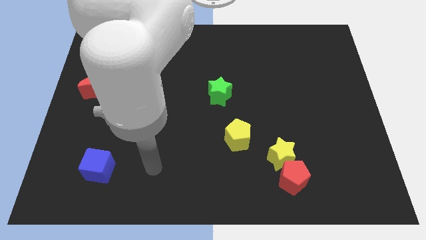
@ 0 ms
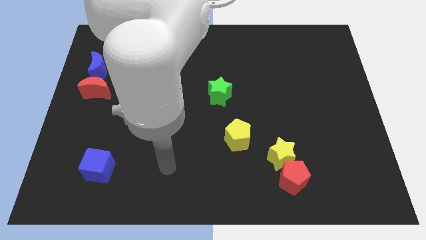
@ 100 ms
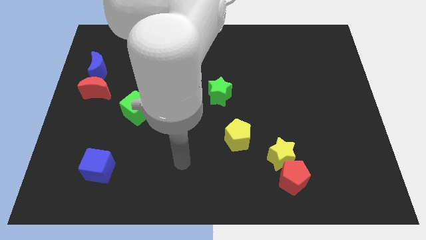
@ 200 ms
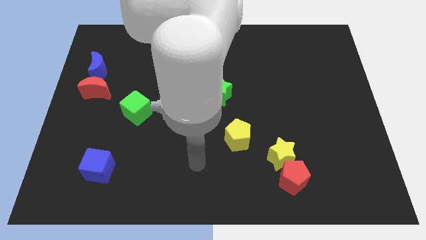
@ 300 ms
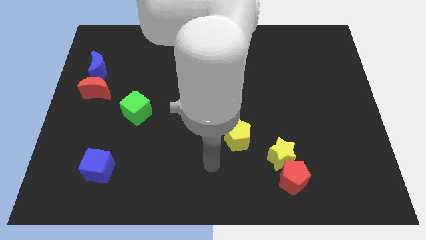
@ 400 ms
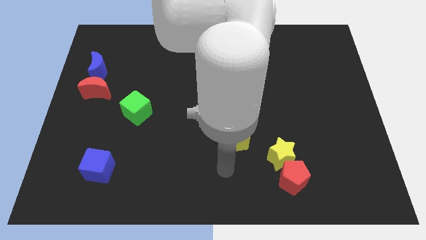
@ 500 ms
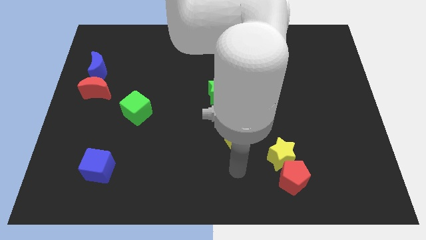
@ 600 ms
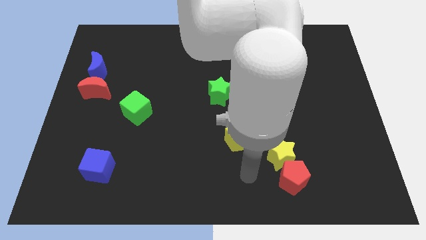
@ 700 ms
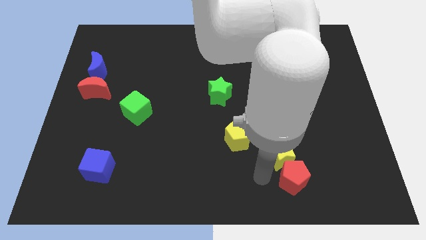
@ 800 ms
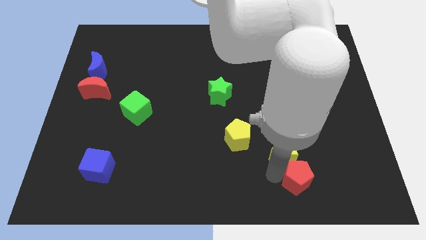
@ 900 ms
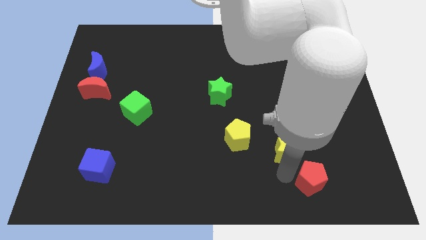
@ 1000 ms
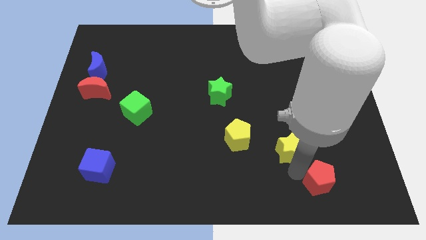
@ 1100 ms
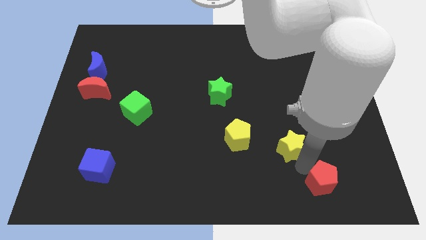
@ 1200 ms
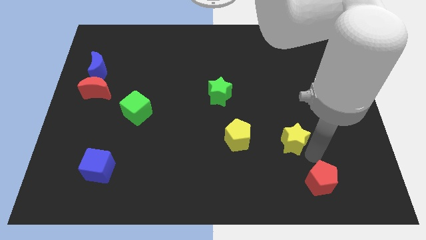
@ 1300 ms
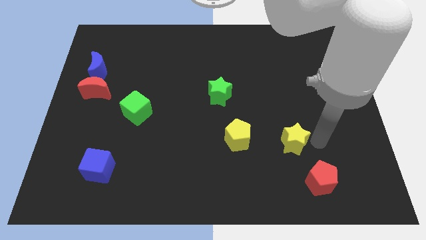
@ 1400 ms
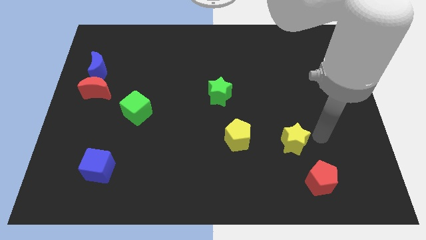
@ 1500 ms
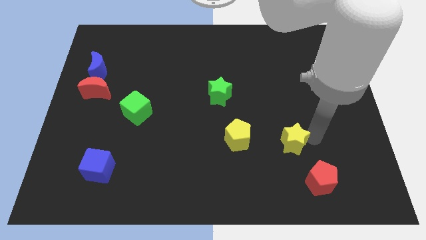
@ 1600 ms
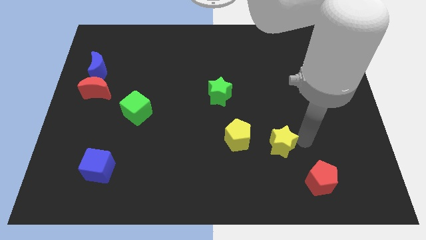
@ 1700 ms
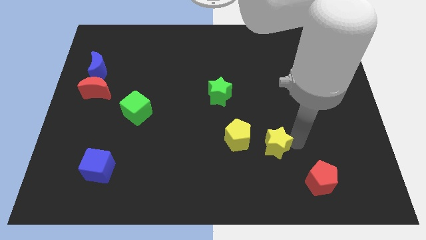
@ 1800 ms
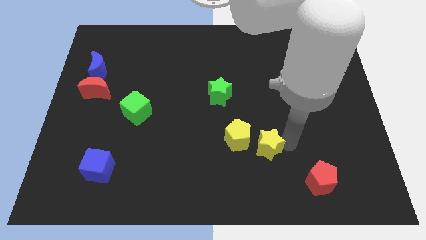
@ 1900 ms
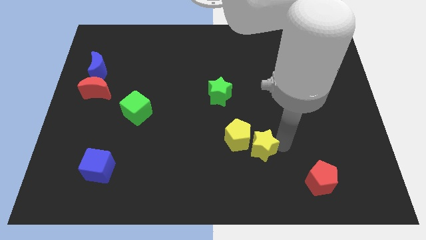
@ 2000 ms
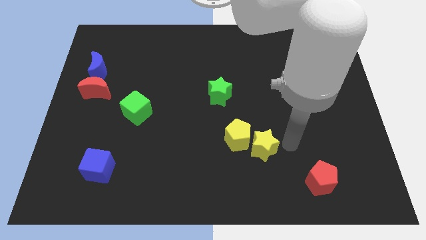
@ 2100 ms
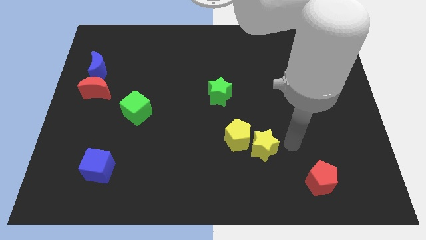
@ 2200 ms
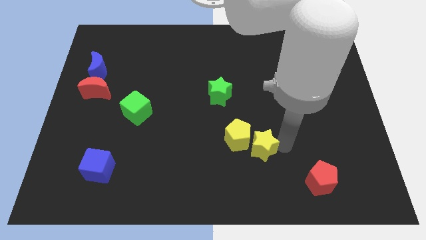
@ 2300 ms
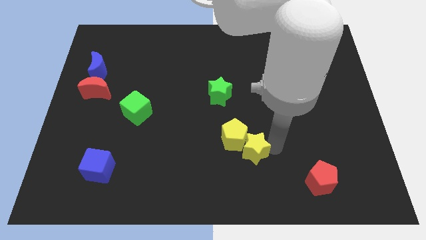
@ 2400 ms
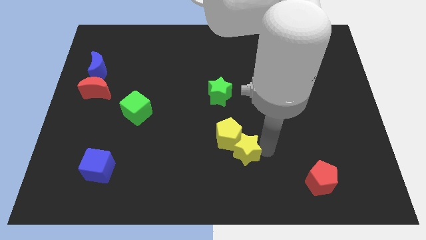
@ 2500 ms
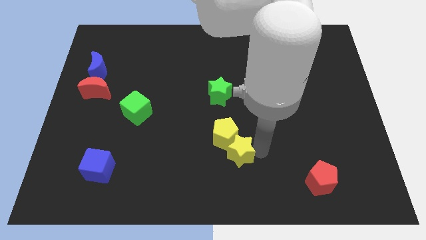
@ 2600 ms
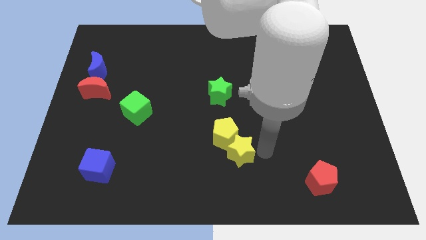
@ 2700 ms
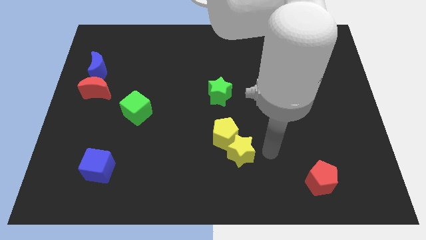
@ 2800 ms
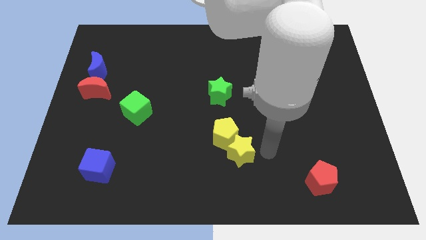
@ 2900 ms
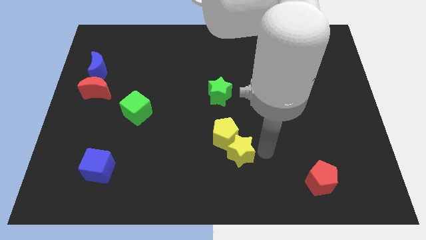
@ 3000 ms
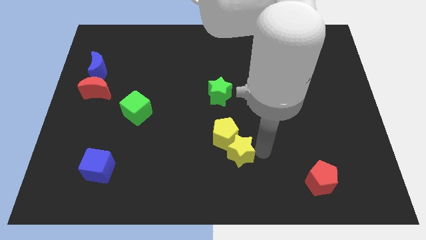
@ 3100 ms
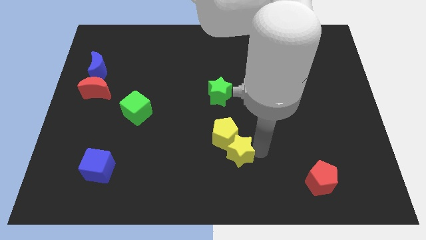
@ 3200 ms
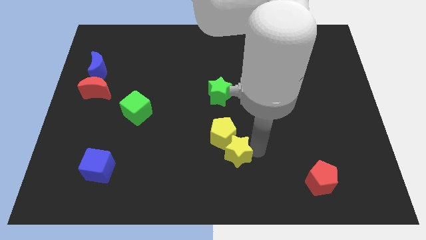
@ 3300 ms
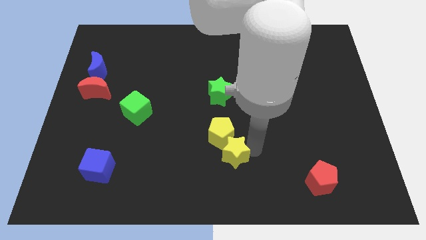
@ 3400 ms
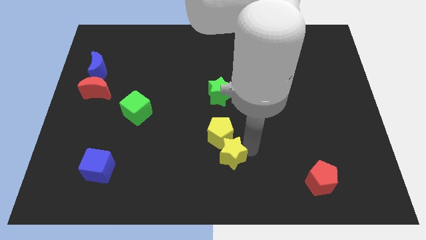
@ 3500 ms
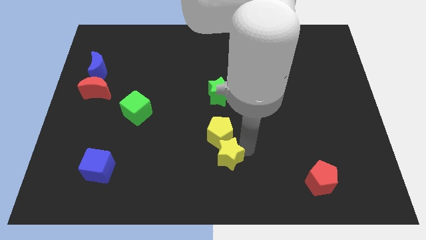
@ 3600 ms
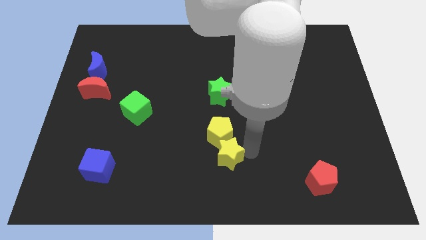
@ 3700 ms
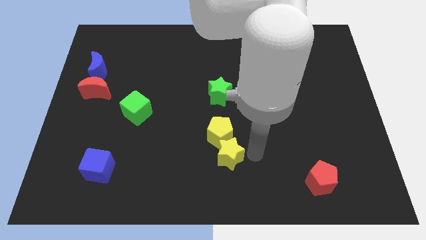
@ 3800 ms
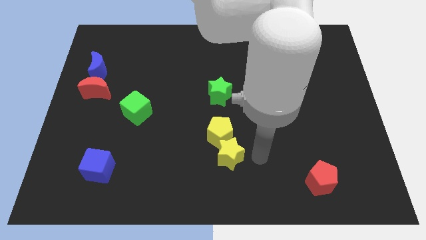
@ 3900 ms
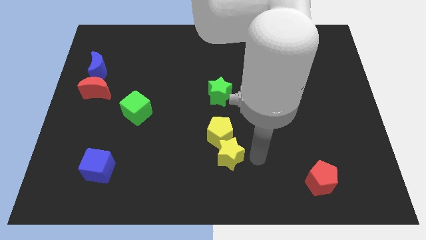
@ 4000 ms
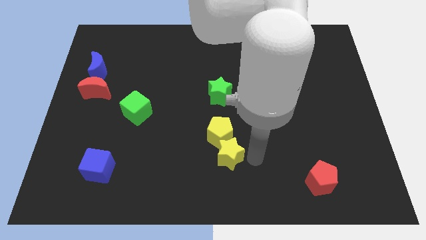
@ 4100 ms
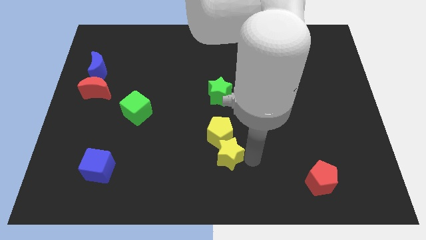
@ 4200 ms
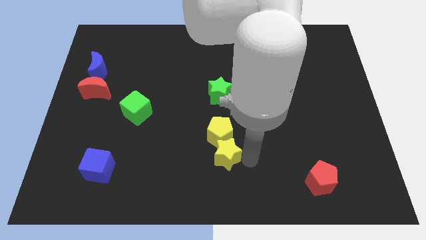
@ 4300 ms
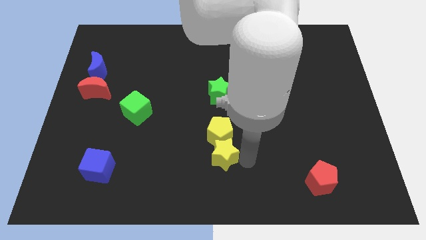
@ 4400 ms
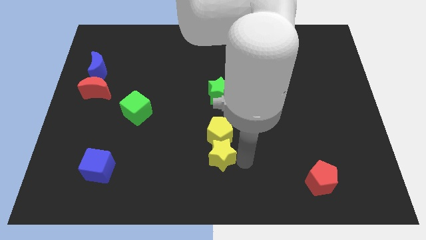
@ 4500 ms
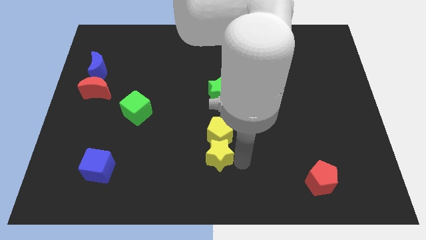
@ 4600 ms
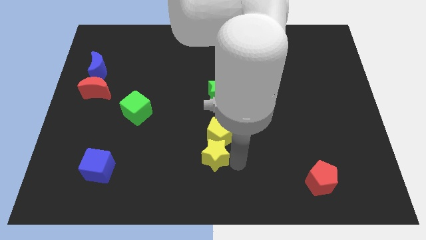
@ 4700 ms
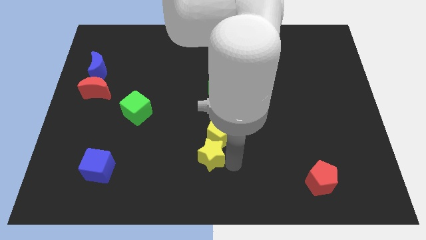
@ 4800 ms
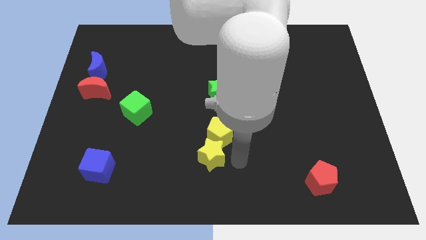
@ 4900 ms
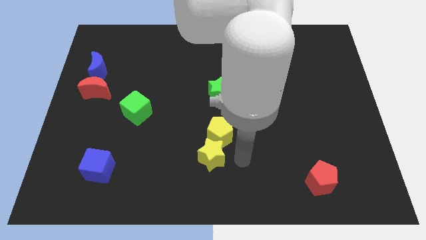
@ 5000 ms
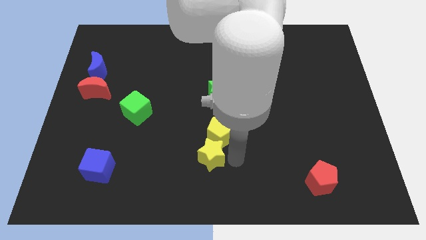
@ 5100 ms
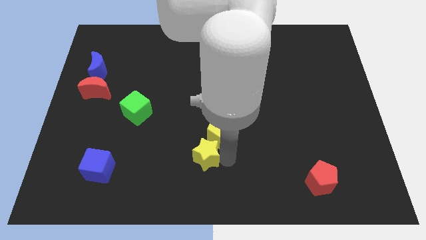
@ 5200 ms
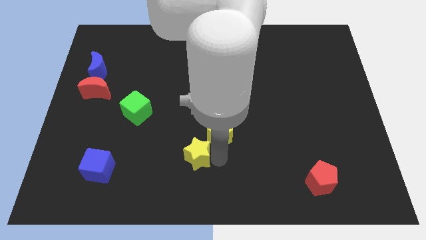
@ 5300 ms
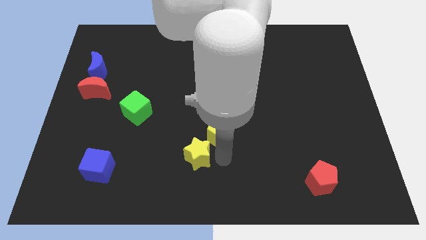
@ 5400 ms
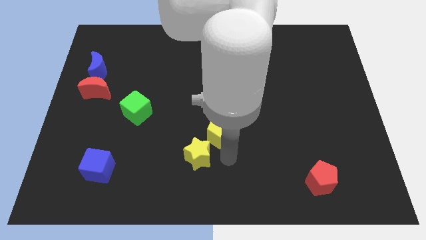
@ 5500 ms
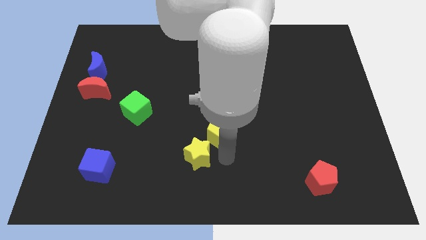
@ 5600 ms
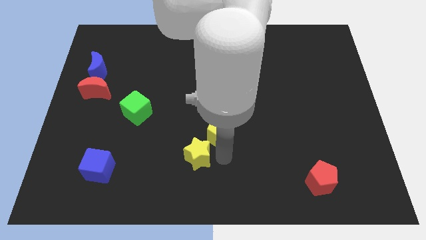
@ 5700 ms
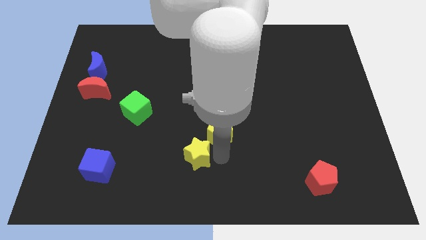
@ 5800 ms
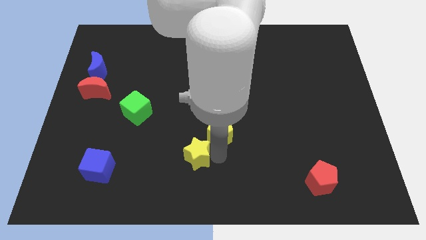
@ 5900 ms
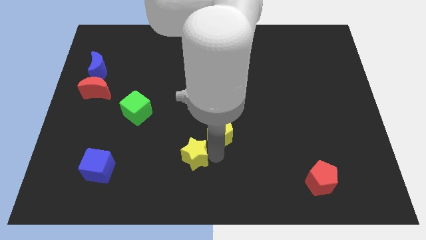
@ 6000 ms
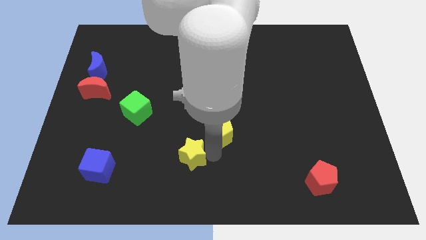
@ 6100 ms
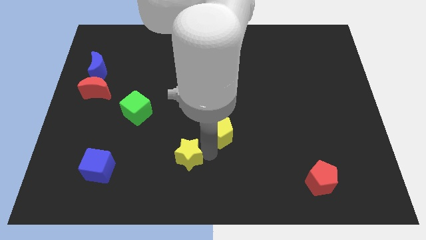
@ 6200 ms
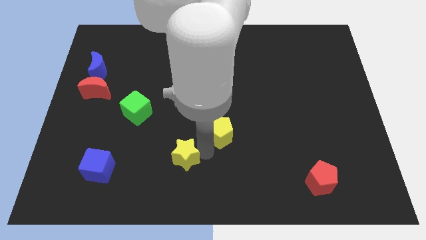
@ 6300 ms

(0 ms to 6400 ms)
slide the yellow star to the left

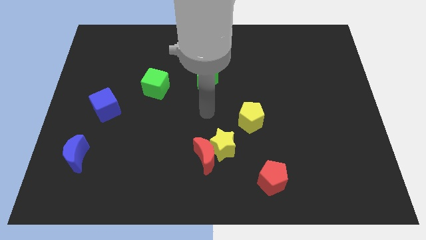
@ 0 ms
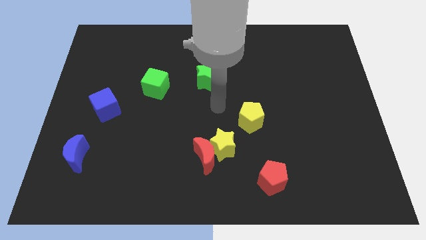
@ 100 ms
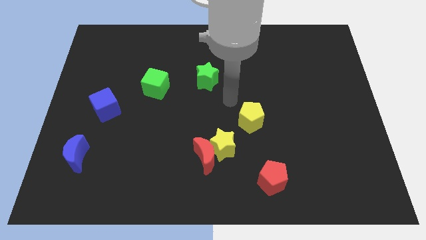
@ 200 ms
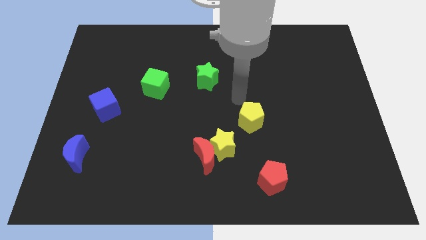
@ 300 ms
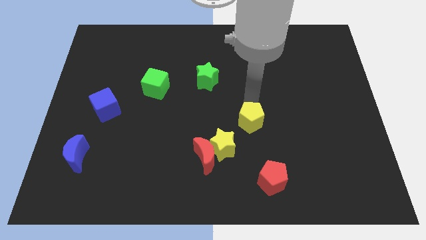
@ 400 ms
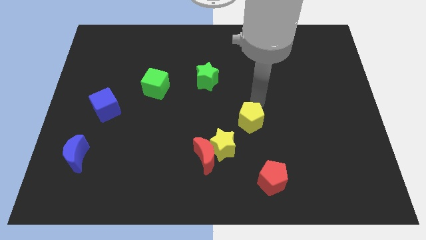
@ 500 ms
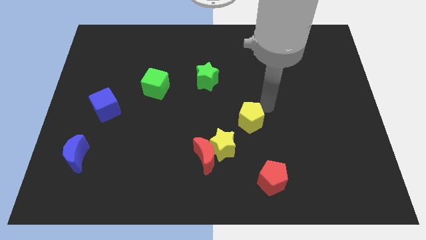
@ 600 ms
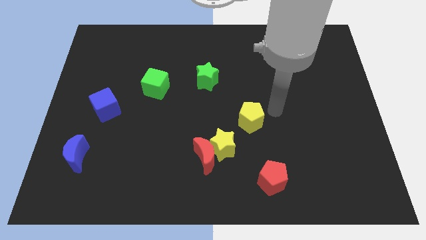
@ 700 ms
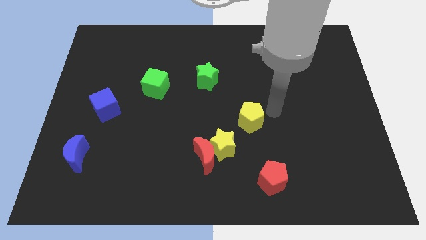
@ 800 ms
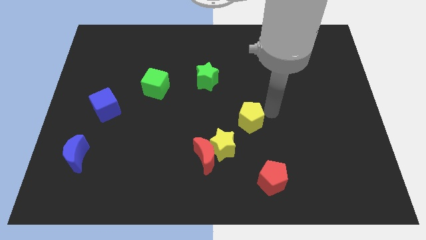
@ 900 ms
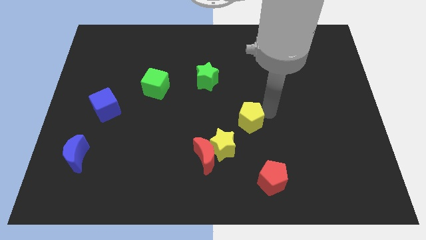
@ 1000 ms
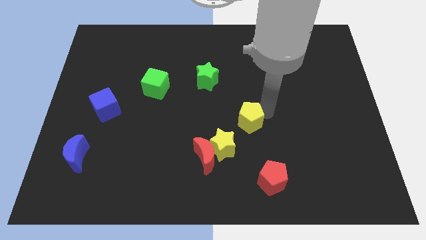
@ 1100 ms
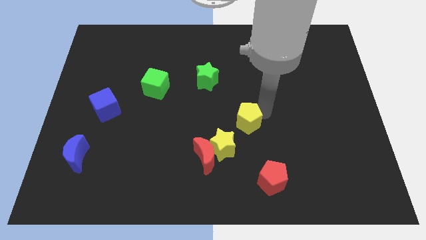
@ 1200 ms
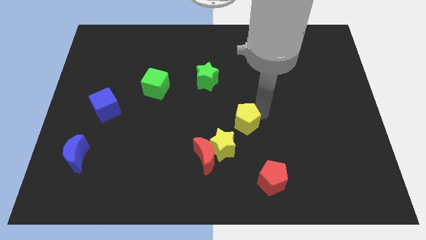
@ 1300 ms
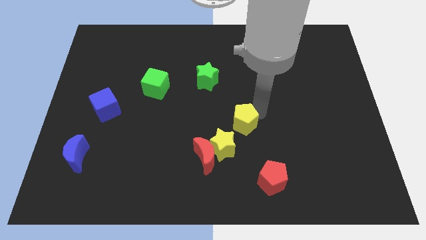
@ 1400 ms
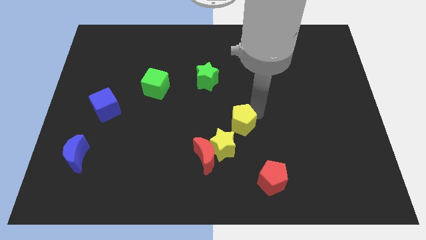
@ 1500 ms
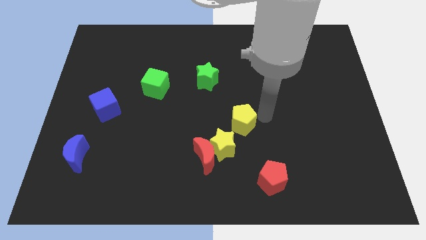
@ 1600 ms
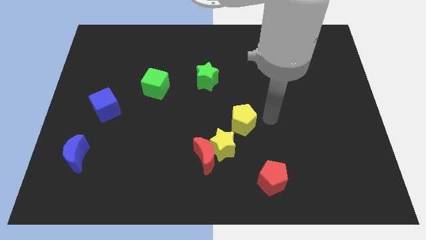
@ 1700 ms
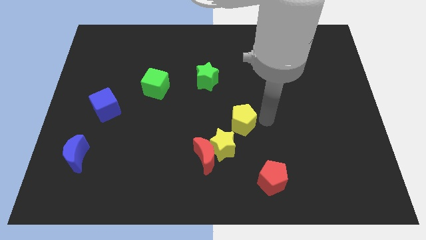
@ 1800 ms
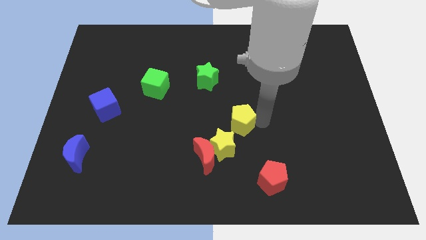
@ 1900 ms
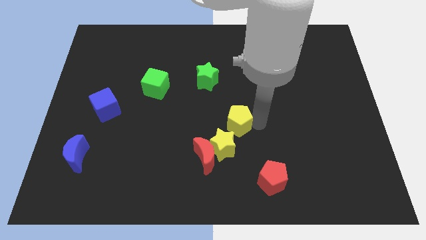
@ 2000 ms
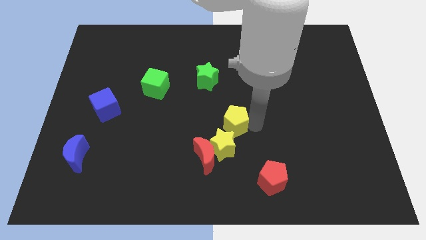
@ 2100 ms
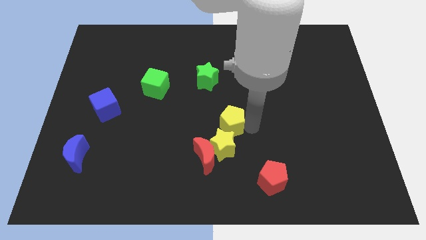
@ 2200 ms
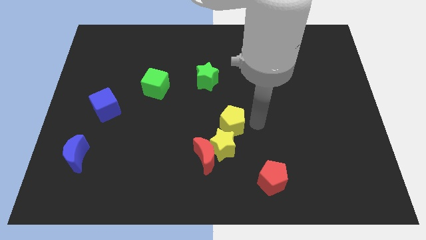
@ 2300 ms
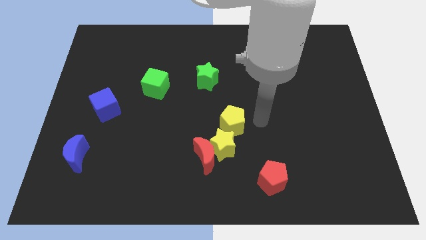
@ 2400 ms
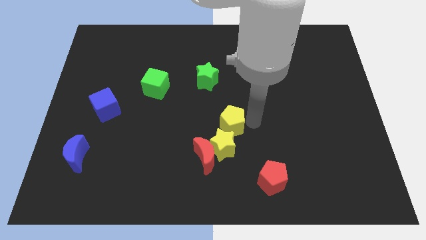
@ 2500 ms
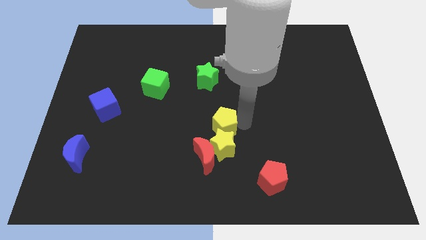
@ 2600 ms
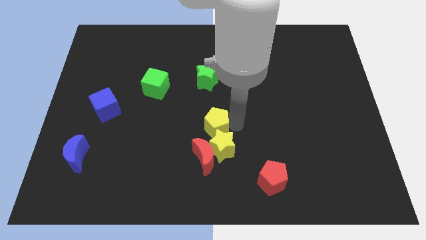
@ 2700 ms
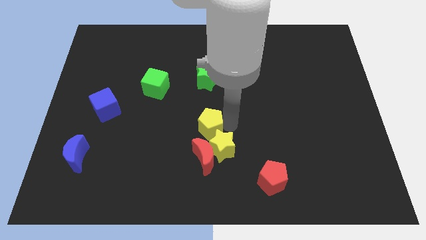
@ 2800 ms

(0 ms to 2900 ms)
slide the yellow pentagon somewhat downwards and left diagonally
